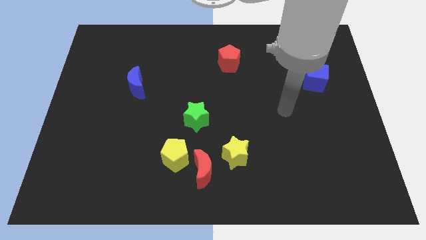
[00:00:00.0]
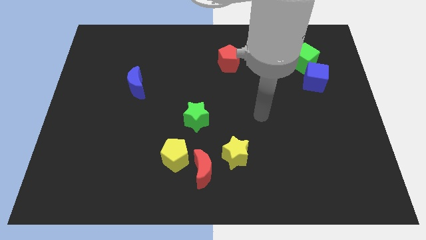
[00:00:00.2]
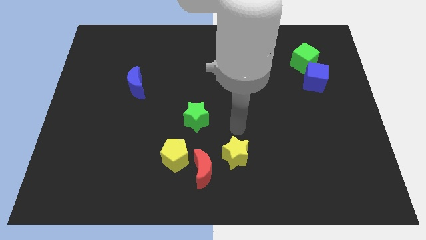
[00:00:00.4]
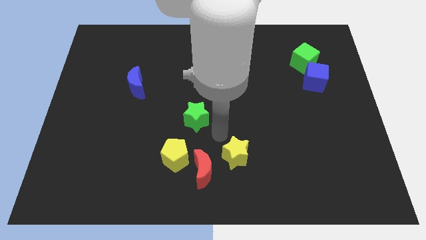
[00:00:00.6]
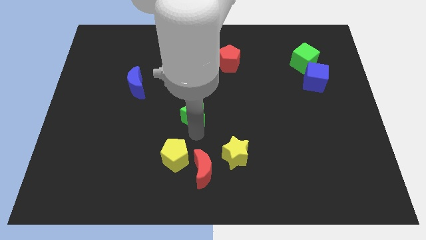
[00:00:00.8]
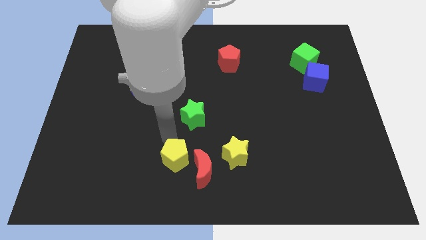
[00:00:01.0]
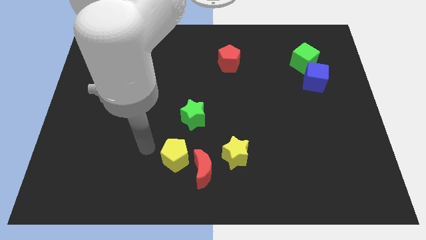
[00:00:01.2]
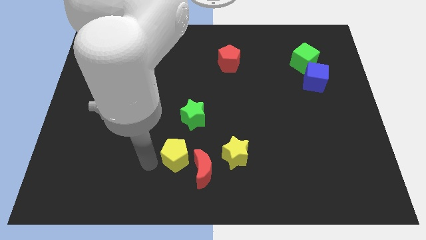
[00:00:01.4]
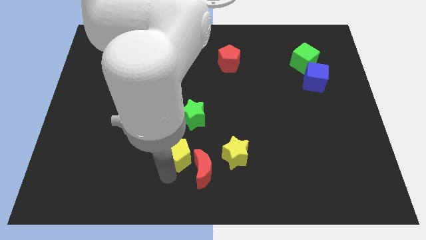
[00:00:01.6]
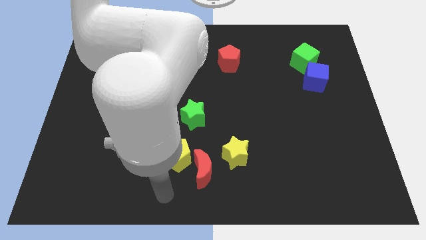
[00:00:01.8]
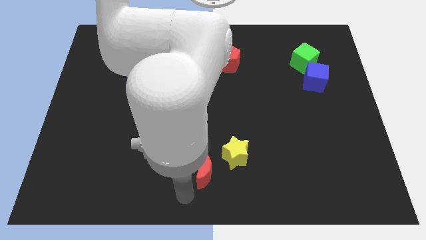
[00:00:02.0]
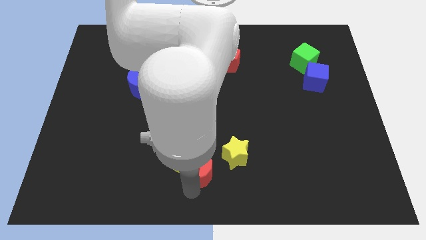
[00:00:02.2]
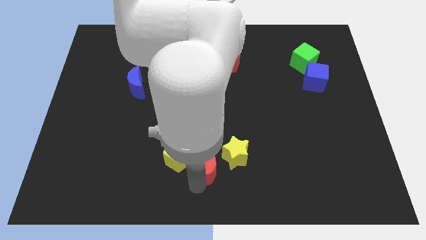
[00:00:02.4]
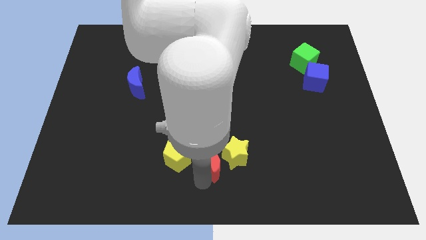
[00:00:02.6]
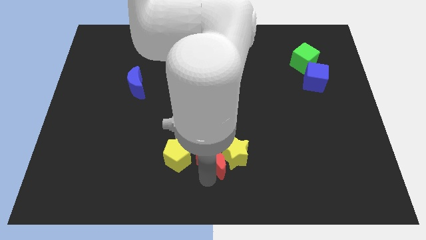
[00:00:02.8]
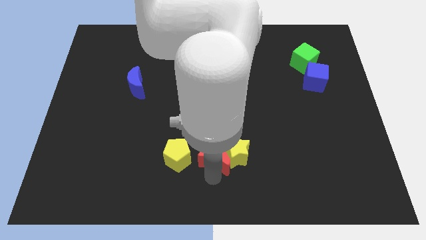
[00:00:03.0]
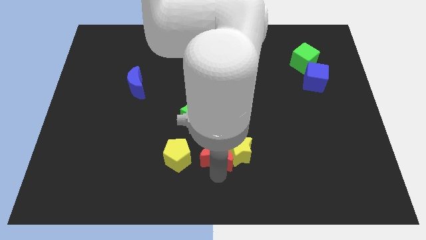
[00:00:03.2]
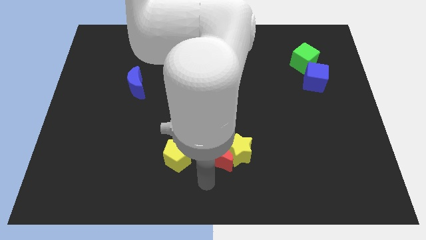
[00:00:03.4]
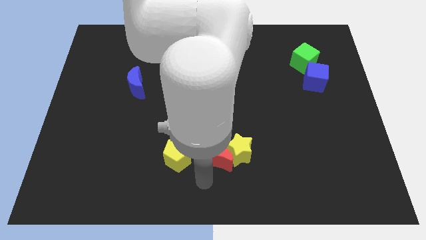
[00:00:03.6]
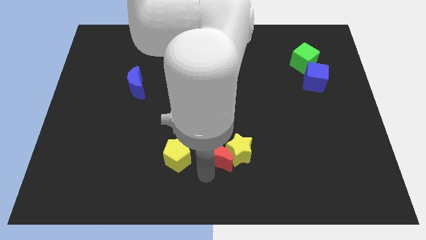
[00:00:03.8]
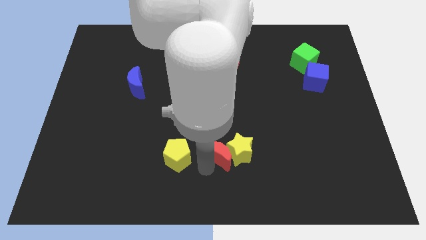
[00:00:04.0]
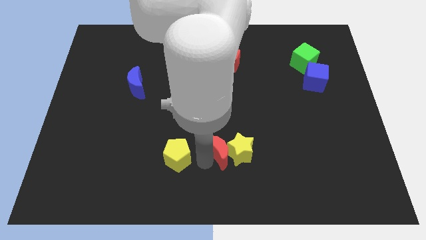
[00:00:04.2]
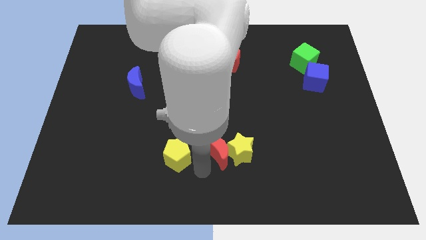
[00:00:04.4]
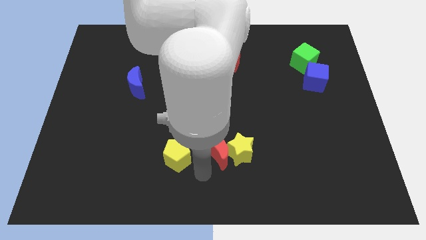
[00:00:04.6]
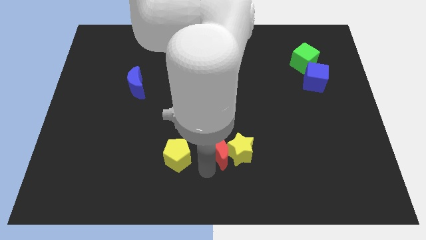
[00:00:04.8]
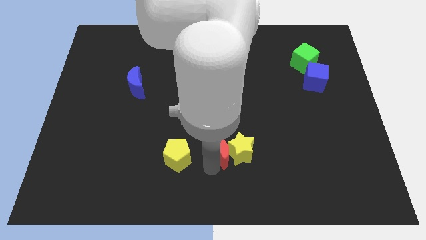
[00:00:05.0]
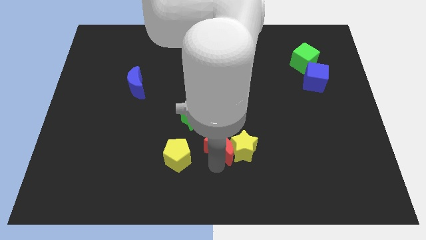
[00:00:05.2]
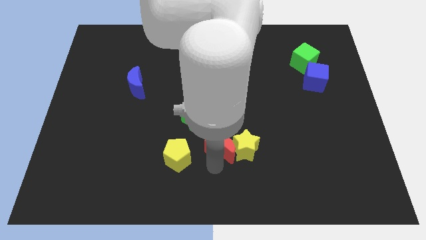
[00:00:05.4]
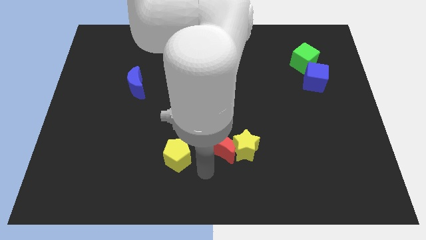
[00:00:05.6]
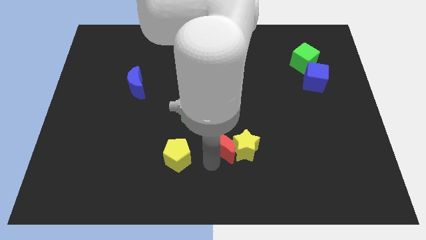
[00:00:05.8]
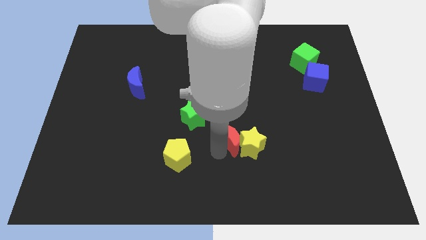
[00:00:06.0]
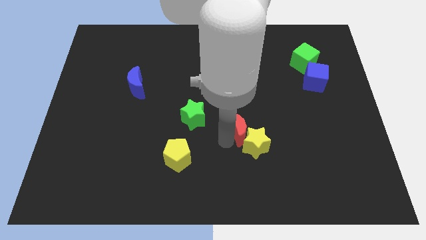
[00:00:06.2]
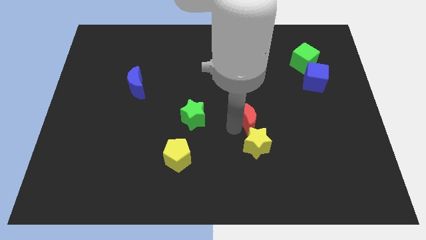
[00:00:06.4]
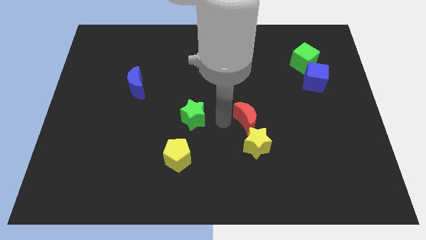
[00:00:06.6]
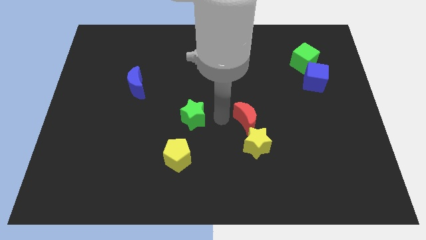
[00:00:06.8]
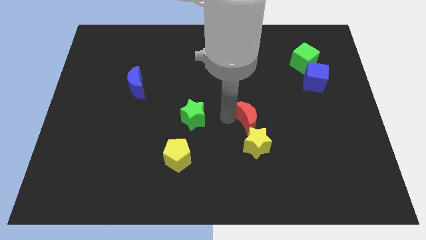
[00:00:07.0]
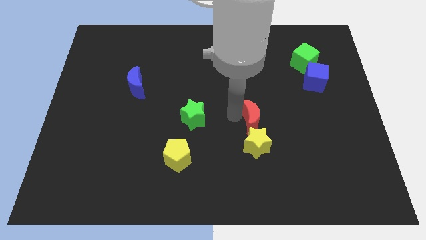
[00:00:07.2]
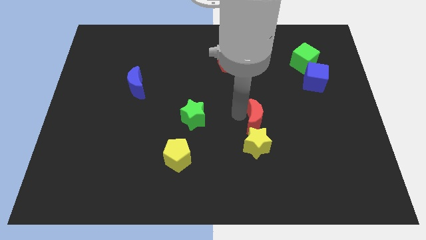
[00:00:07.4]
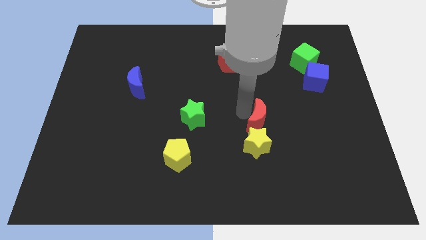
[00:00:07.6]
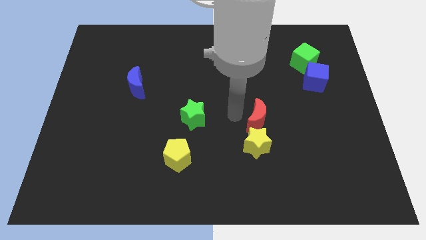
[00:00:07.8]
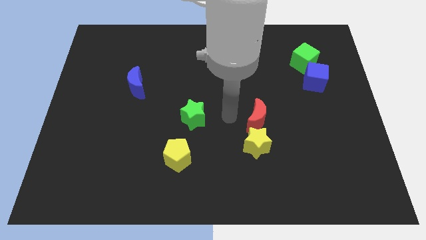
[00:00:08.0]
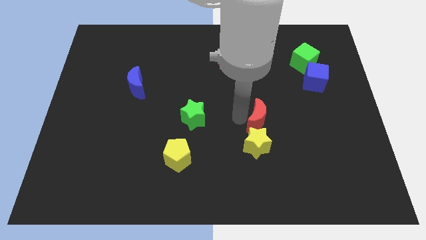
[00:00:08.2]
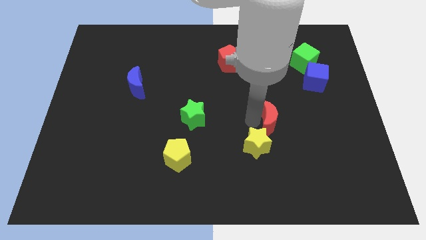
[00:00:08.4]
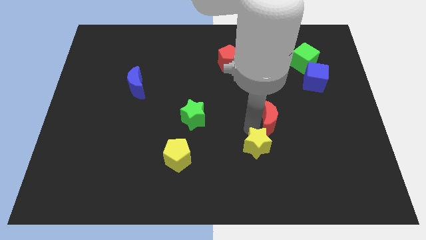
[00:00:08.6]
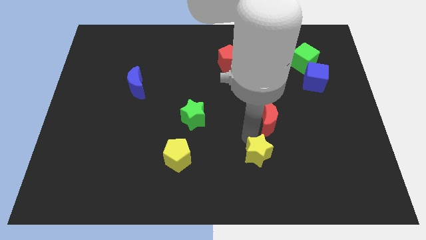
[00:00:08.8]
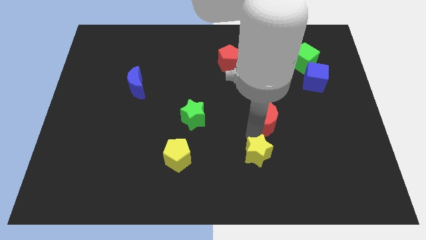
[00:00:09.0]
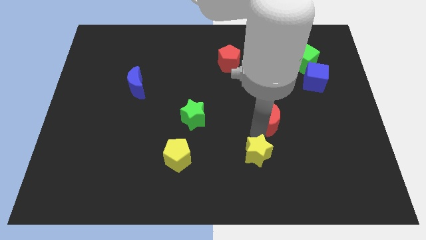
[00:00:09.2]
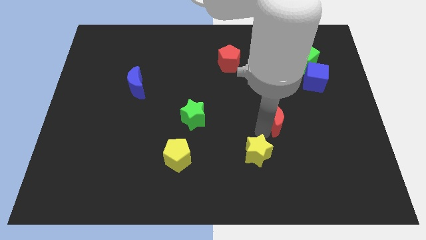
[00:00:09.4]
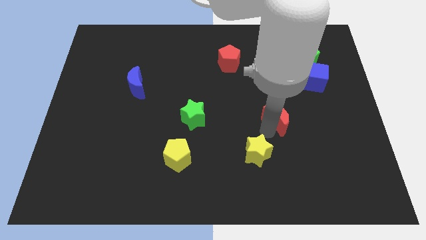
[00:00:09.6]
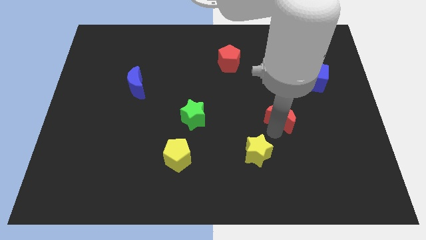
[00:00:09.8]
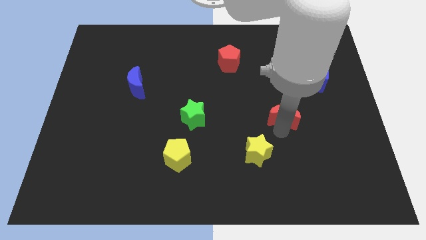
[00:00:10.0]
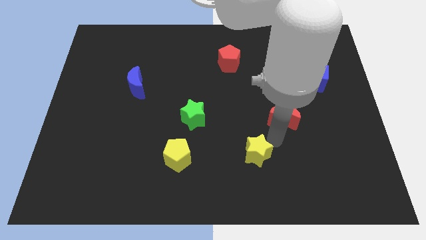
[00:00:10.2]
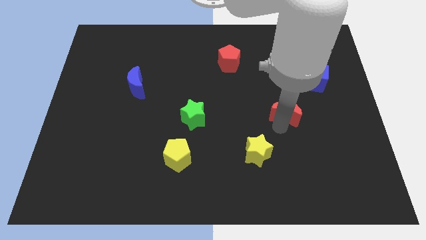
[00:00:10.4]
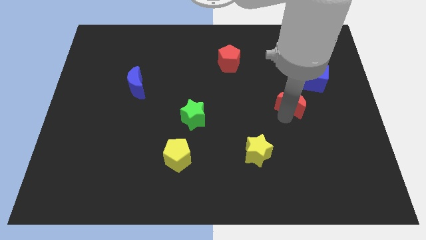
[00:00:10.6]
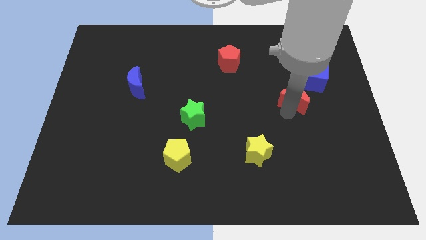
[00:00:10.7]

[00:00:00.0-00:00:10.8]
move the red moon below the green cube

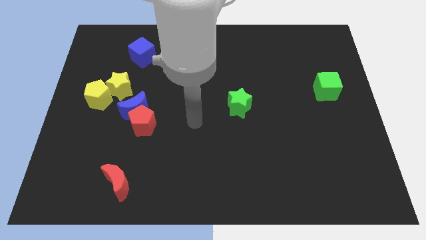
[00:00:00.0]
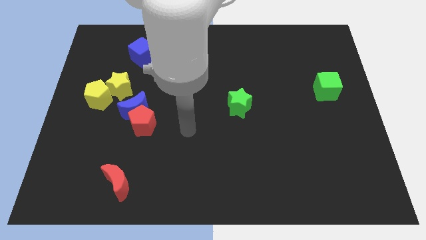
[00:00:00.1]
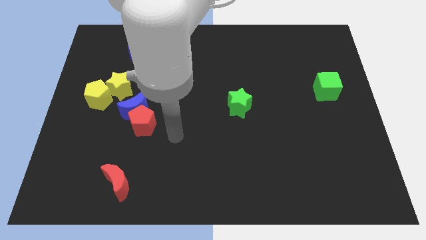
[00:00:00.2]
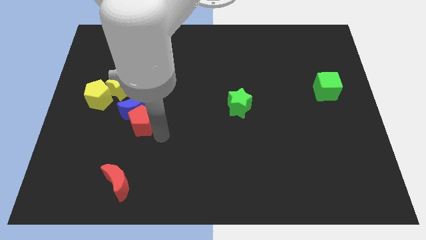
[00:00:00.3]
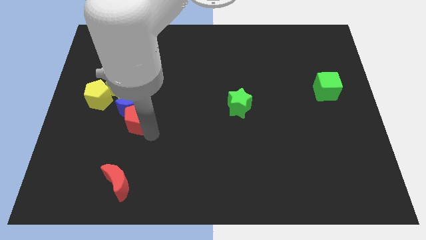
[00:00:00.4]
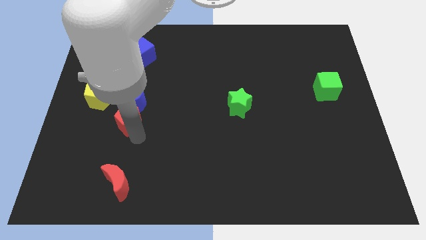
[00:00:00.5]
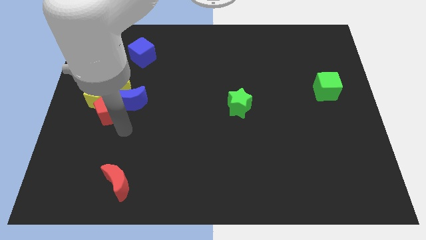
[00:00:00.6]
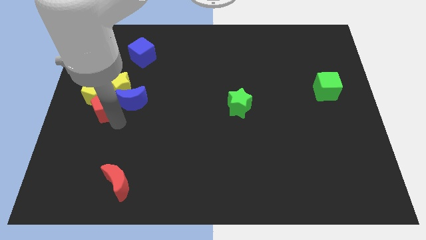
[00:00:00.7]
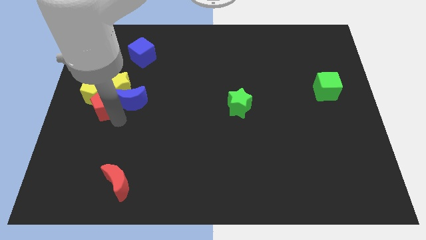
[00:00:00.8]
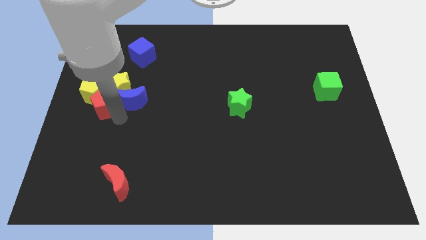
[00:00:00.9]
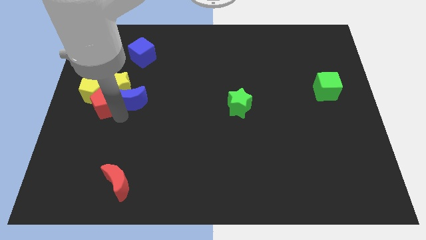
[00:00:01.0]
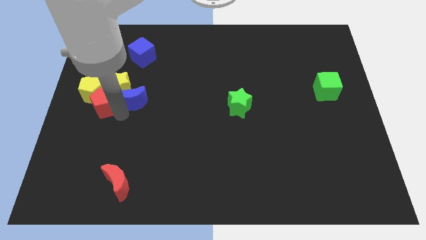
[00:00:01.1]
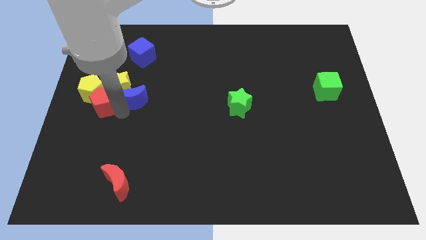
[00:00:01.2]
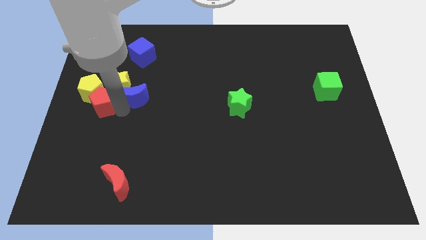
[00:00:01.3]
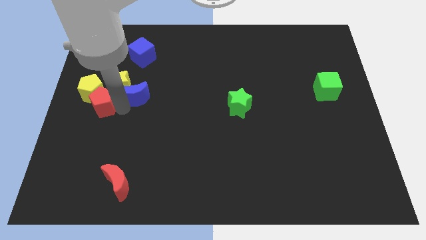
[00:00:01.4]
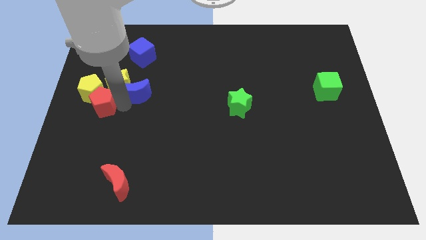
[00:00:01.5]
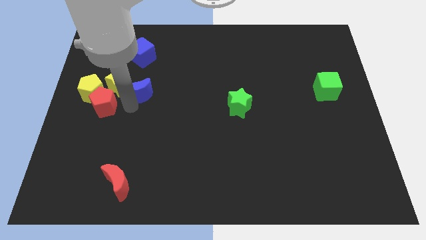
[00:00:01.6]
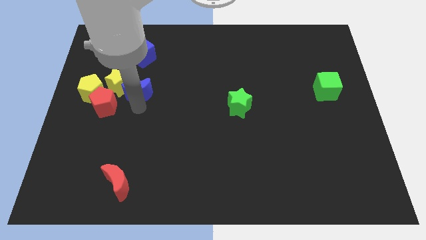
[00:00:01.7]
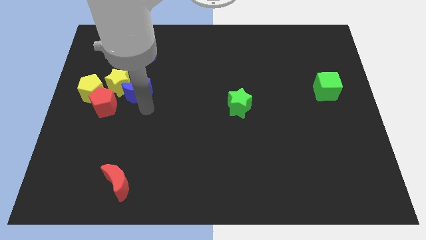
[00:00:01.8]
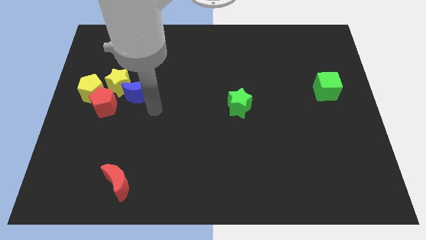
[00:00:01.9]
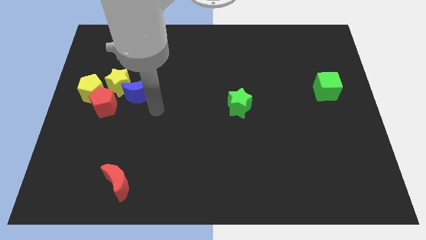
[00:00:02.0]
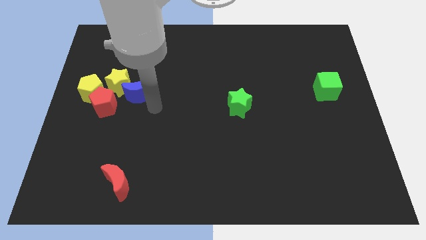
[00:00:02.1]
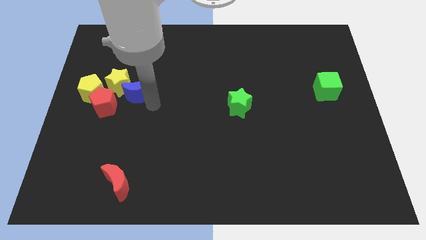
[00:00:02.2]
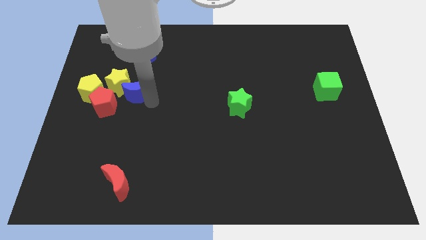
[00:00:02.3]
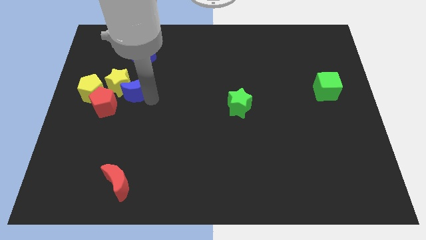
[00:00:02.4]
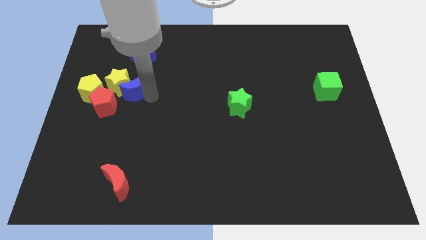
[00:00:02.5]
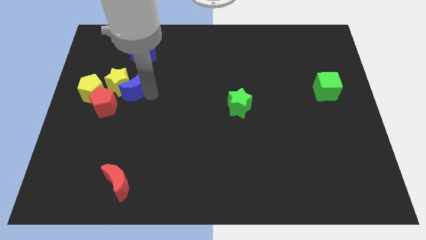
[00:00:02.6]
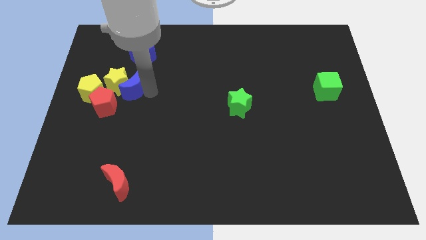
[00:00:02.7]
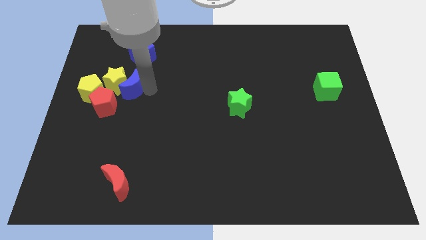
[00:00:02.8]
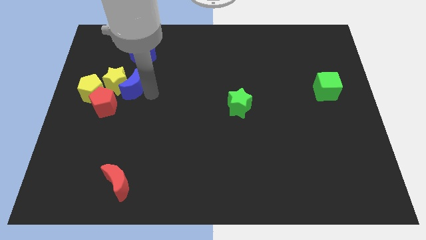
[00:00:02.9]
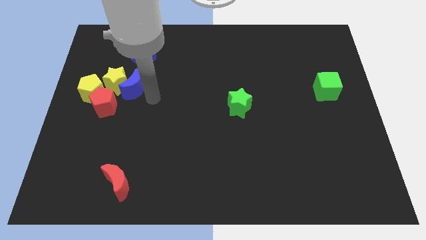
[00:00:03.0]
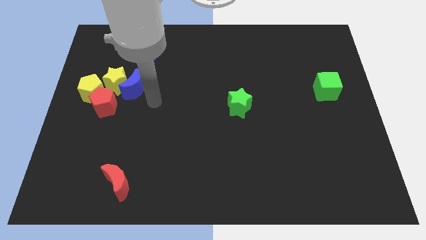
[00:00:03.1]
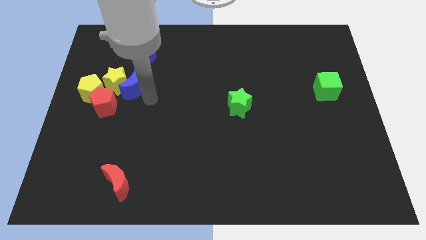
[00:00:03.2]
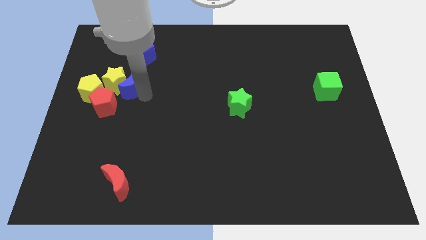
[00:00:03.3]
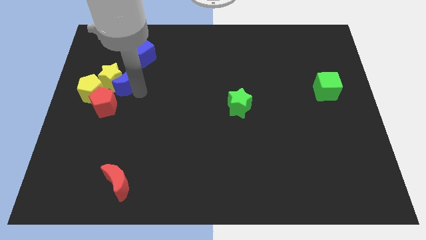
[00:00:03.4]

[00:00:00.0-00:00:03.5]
push the blue moon to the top right of the yellow pentagon
